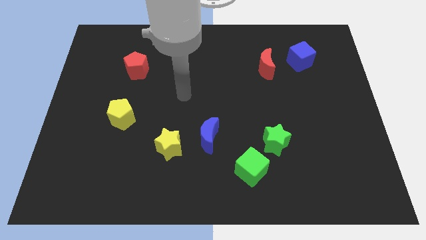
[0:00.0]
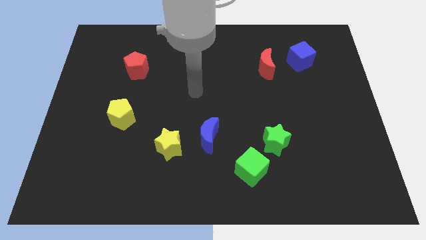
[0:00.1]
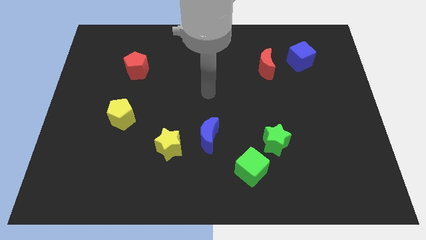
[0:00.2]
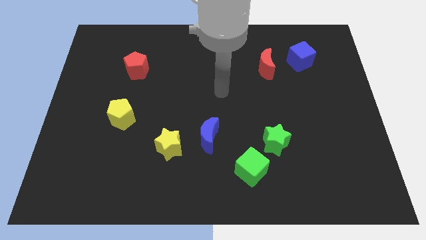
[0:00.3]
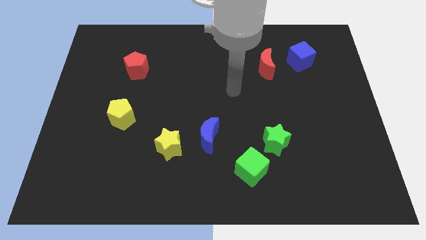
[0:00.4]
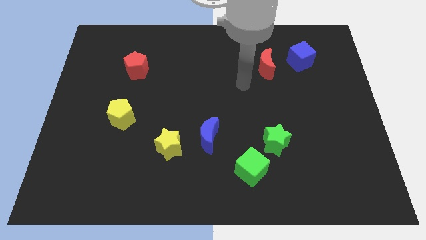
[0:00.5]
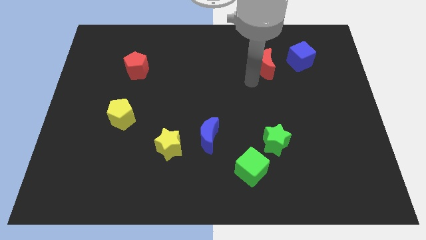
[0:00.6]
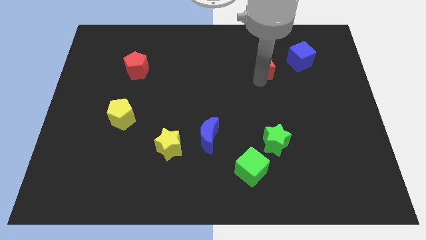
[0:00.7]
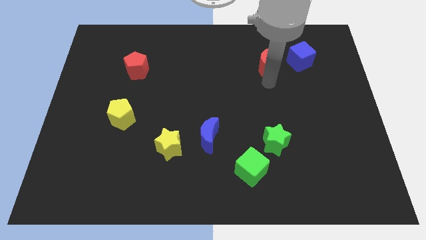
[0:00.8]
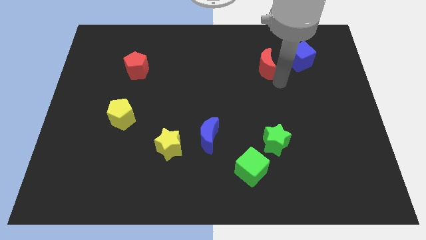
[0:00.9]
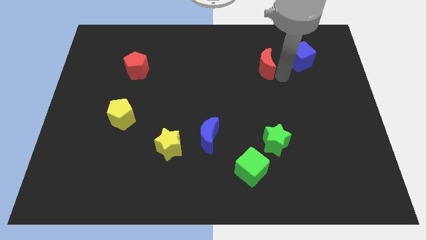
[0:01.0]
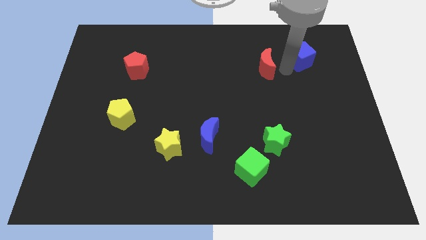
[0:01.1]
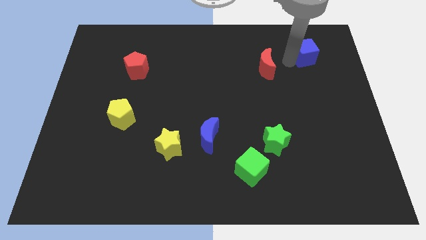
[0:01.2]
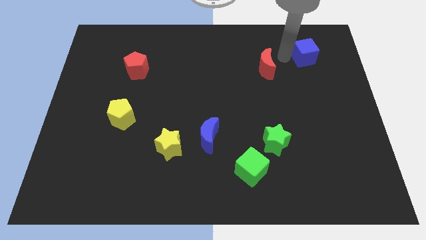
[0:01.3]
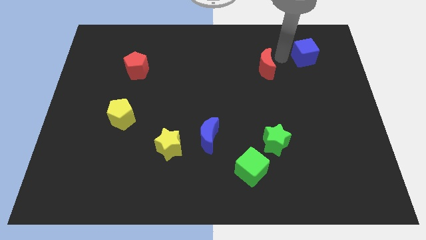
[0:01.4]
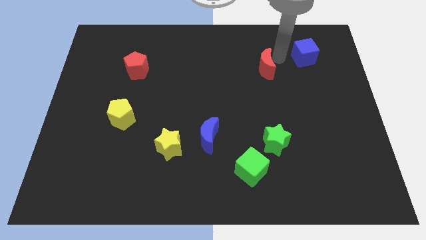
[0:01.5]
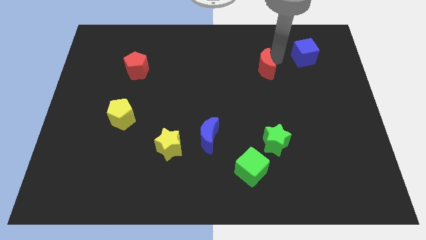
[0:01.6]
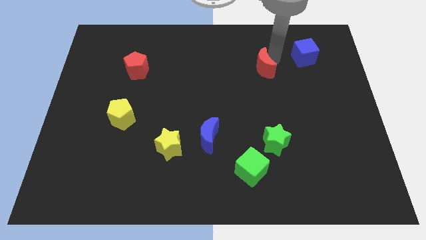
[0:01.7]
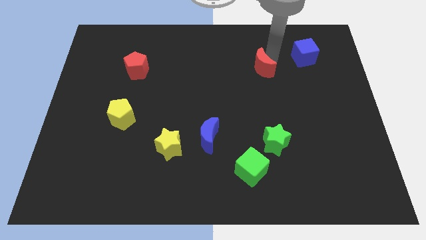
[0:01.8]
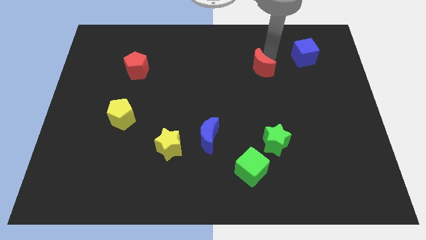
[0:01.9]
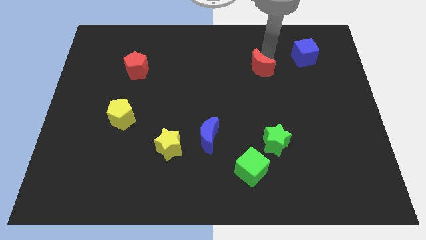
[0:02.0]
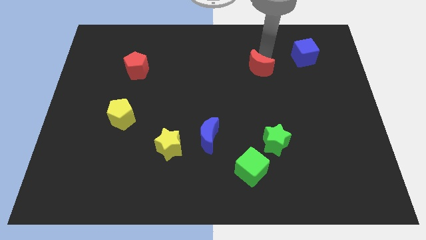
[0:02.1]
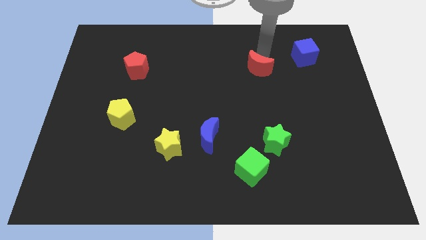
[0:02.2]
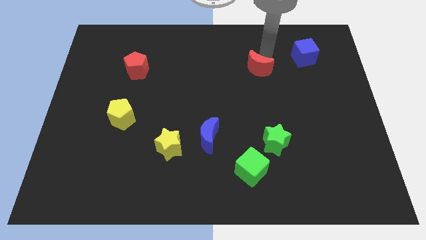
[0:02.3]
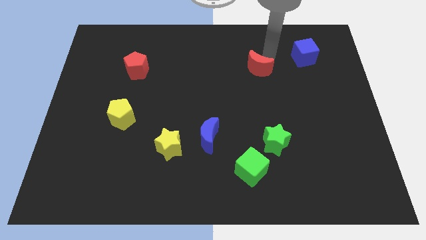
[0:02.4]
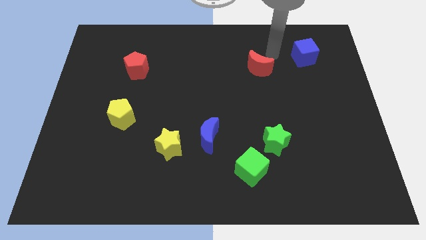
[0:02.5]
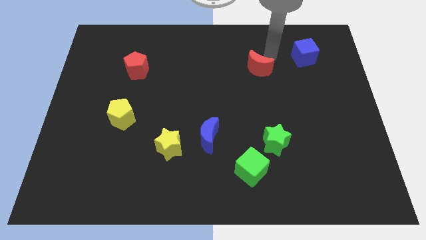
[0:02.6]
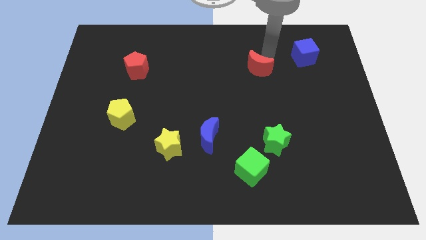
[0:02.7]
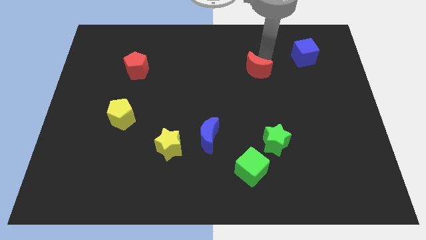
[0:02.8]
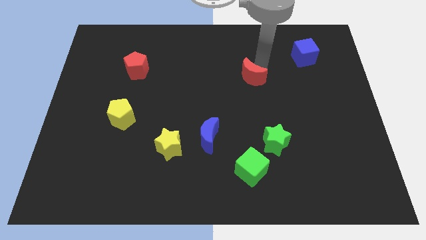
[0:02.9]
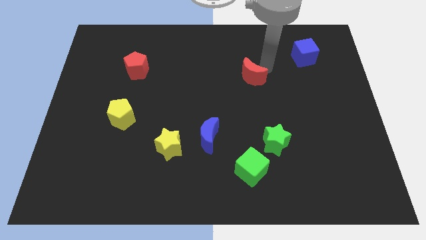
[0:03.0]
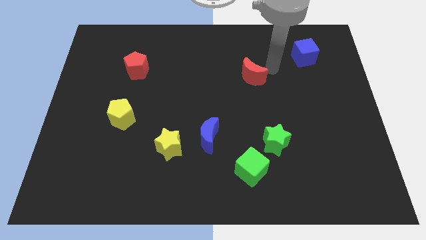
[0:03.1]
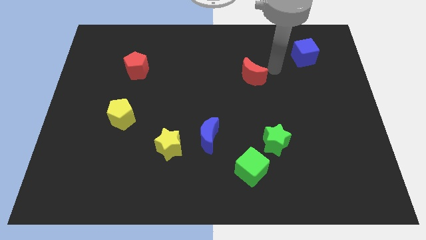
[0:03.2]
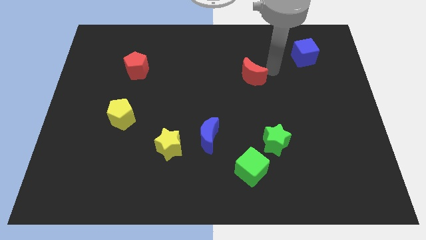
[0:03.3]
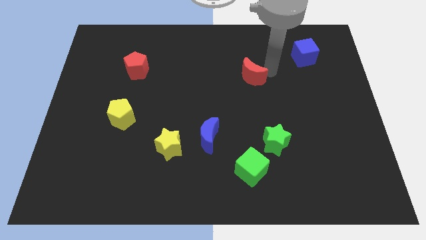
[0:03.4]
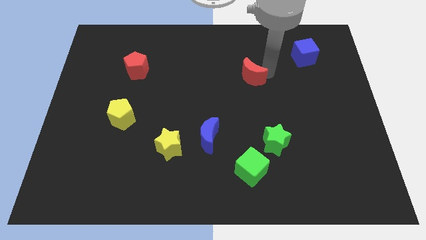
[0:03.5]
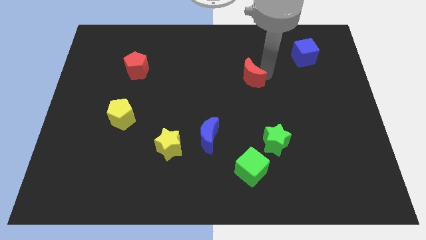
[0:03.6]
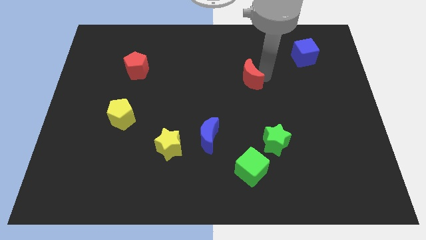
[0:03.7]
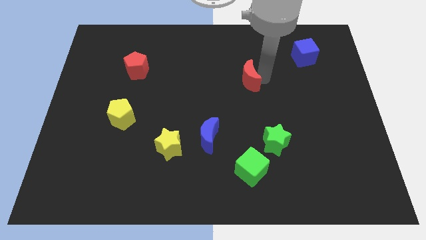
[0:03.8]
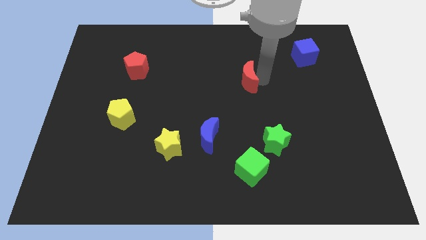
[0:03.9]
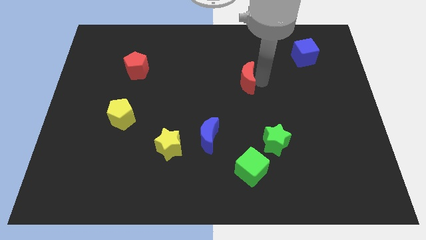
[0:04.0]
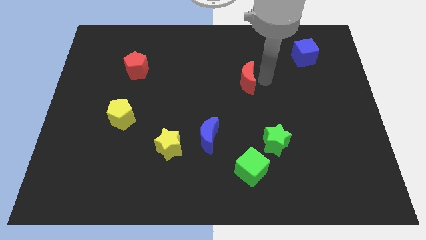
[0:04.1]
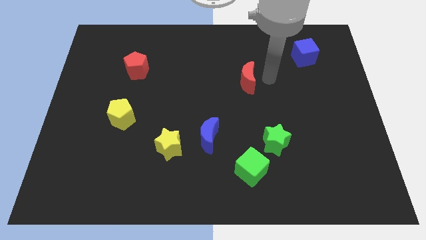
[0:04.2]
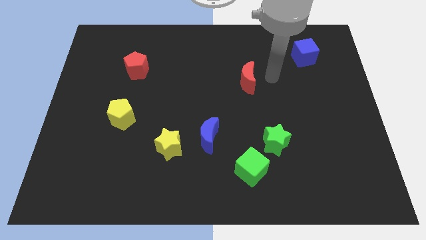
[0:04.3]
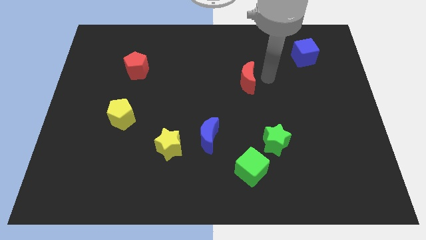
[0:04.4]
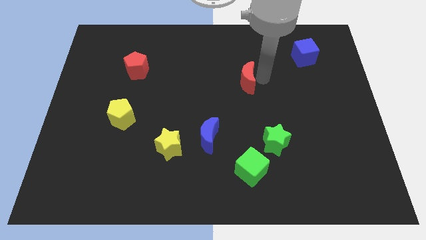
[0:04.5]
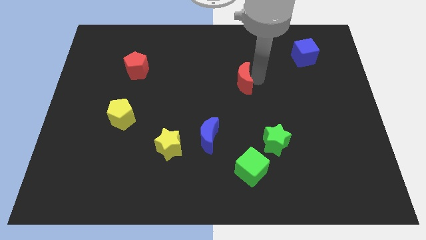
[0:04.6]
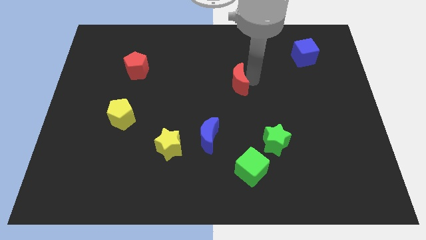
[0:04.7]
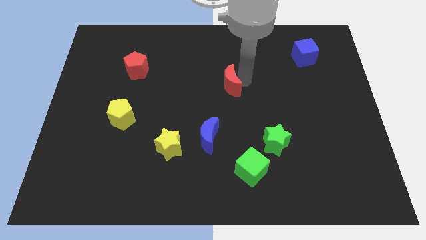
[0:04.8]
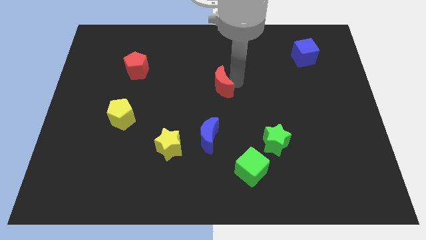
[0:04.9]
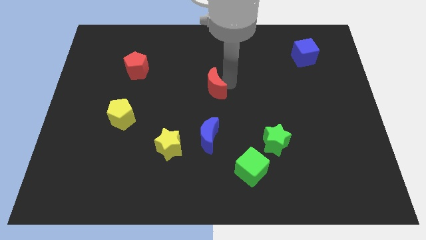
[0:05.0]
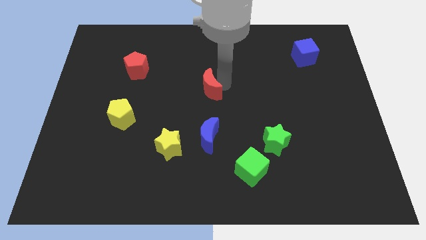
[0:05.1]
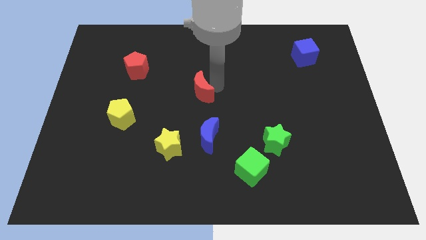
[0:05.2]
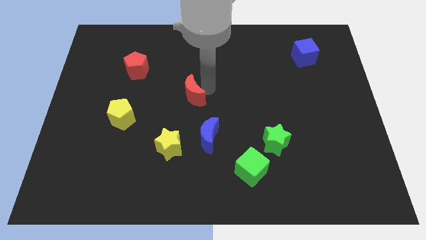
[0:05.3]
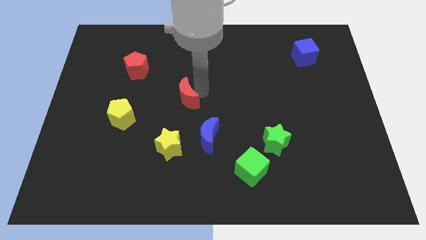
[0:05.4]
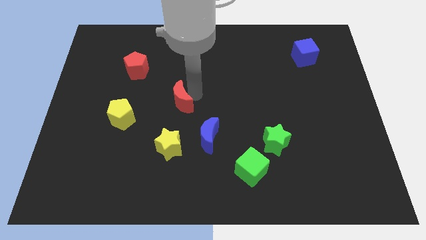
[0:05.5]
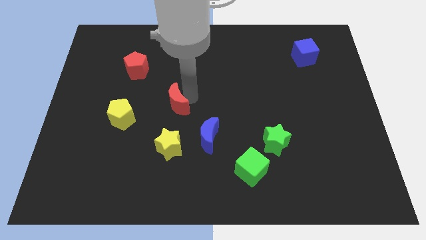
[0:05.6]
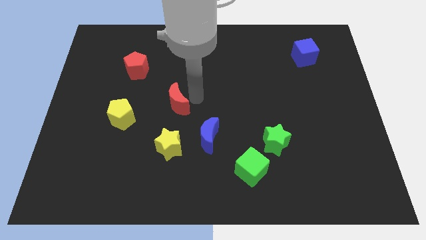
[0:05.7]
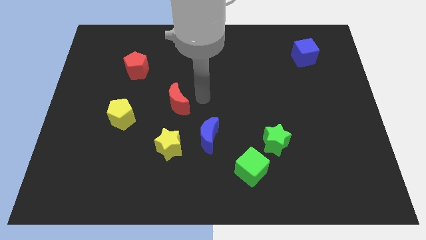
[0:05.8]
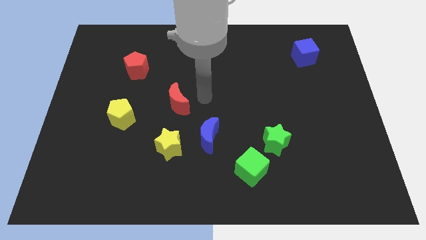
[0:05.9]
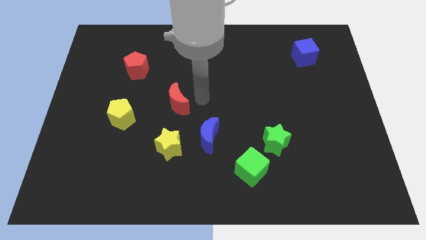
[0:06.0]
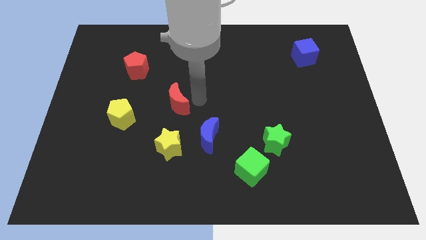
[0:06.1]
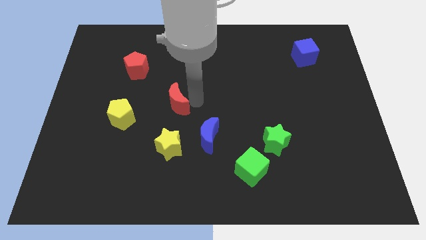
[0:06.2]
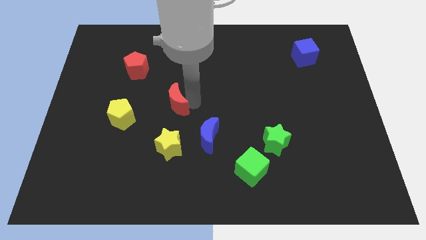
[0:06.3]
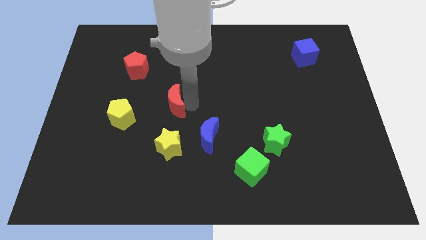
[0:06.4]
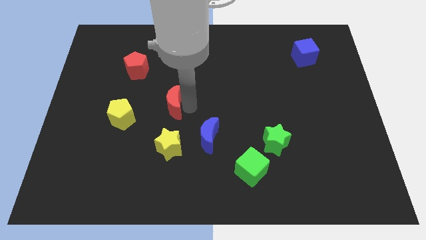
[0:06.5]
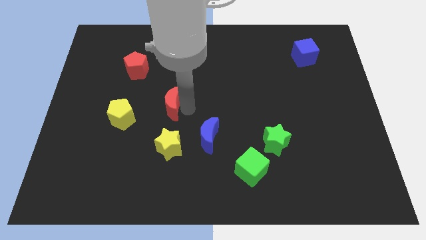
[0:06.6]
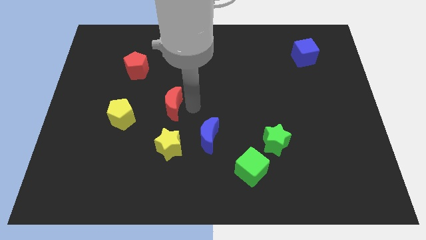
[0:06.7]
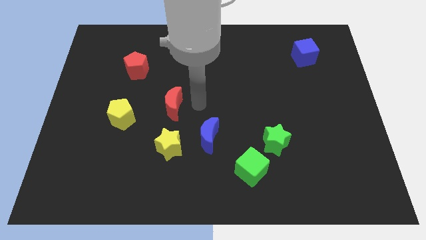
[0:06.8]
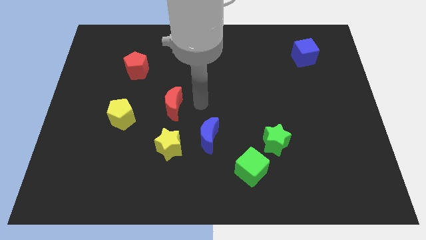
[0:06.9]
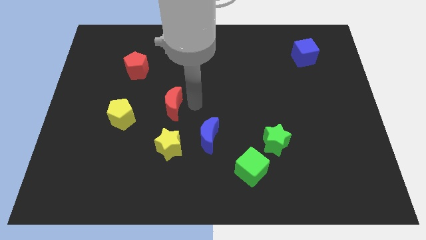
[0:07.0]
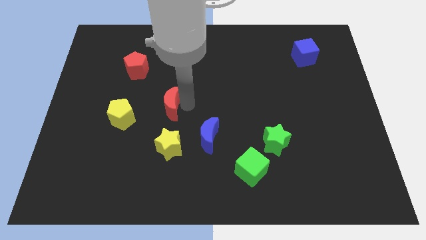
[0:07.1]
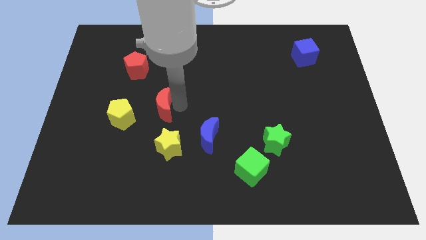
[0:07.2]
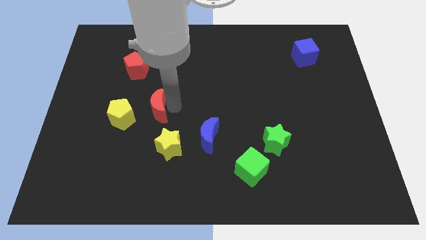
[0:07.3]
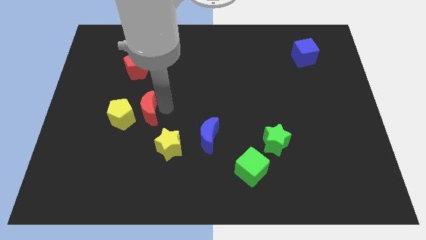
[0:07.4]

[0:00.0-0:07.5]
put the red moon towards the yellow pentagon

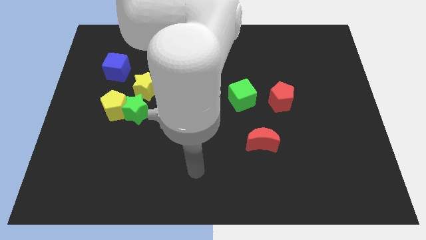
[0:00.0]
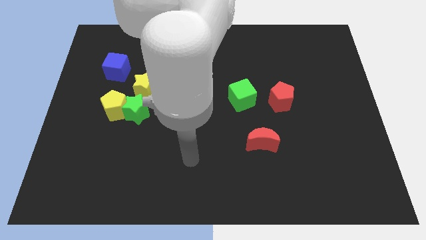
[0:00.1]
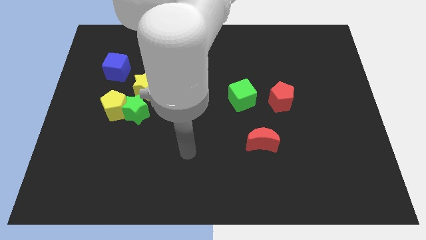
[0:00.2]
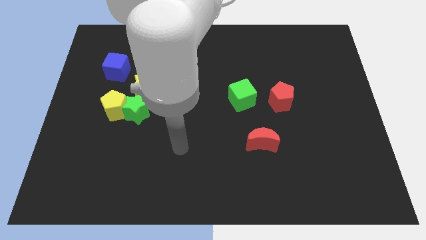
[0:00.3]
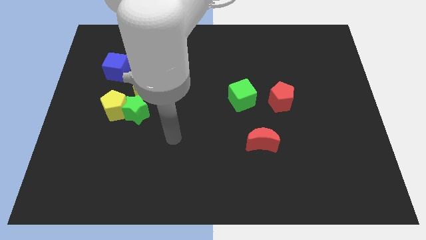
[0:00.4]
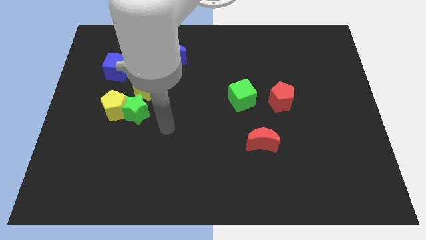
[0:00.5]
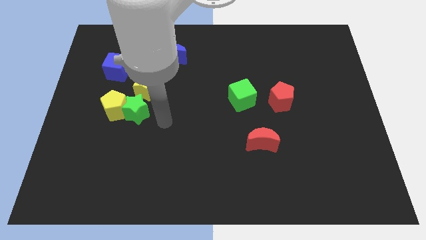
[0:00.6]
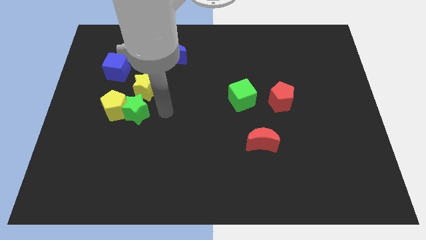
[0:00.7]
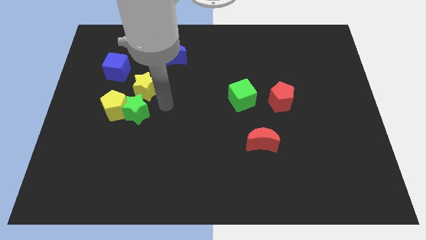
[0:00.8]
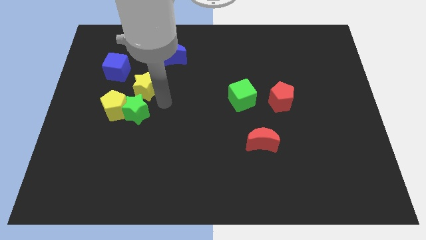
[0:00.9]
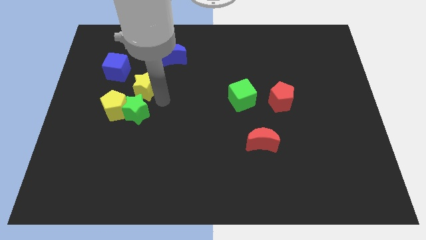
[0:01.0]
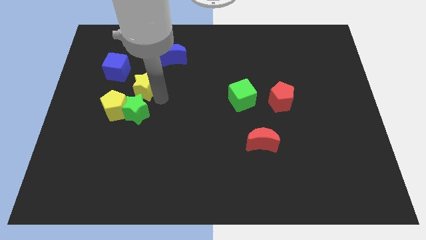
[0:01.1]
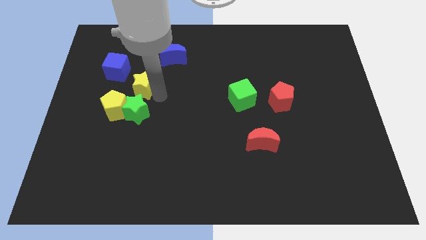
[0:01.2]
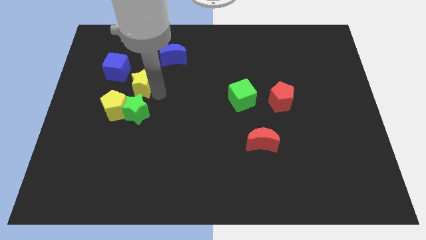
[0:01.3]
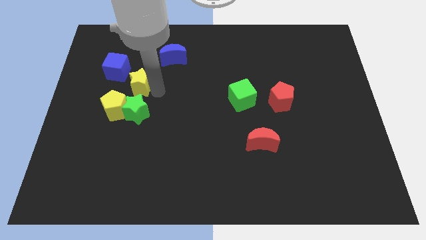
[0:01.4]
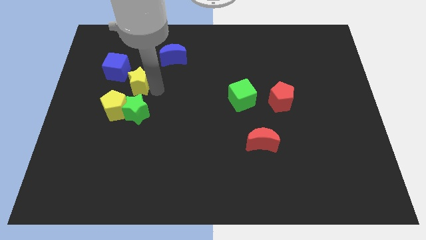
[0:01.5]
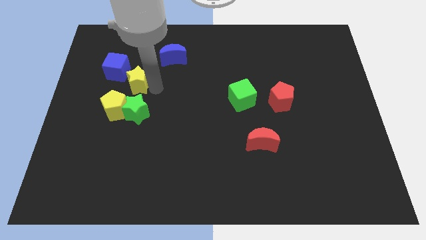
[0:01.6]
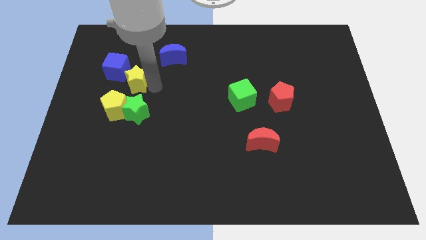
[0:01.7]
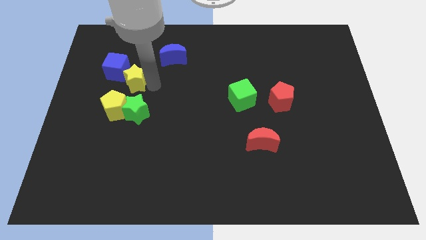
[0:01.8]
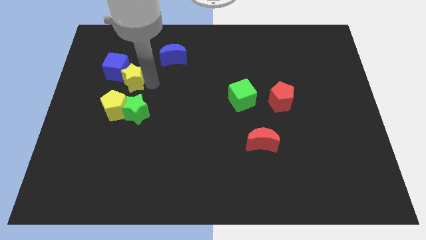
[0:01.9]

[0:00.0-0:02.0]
put the yellow star next to the blue cube
